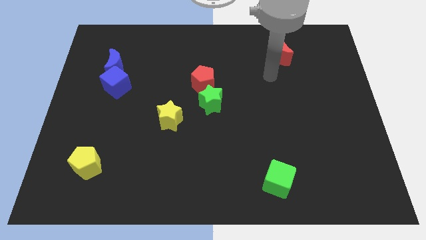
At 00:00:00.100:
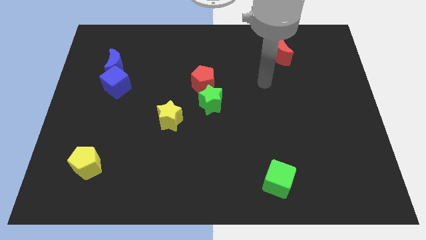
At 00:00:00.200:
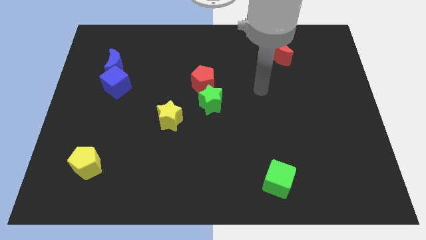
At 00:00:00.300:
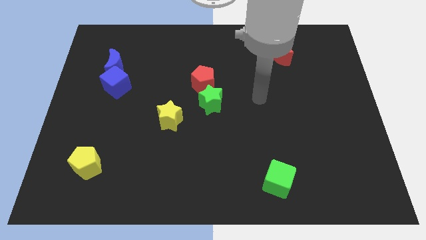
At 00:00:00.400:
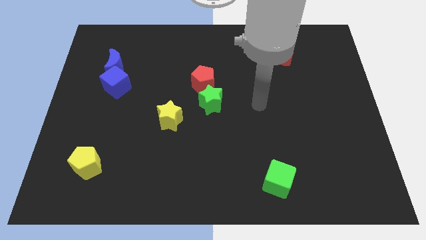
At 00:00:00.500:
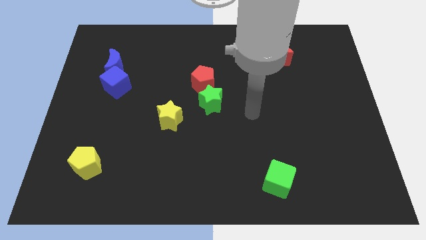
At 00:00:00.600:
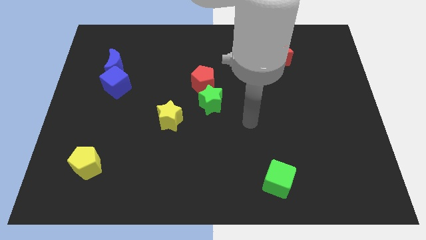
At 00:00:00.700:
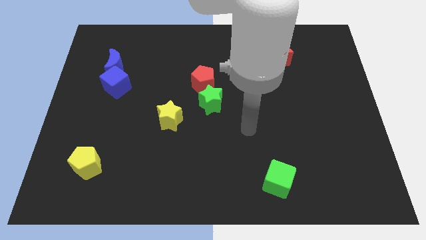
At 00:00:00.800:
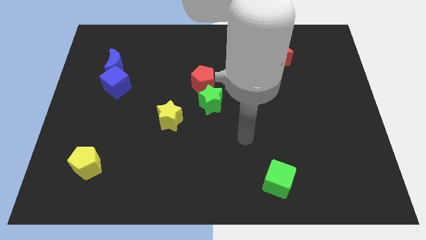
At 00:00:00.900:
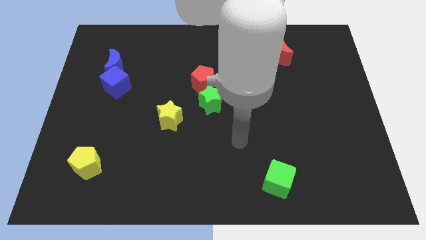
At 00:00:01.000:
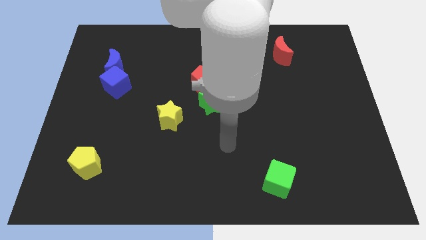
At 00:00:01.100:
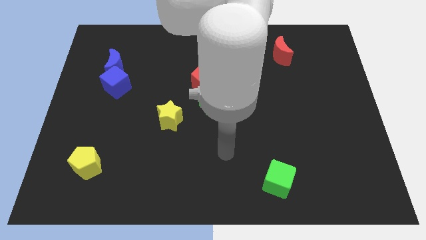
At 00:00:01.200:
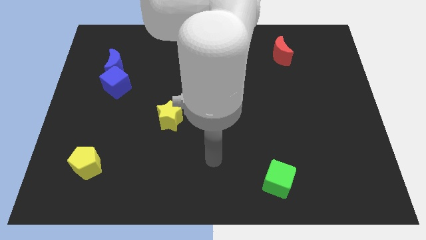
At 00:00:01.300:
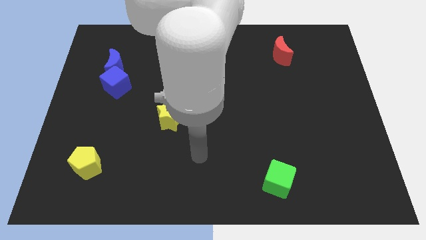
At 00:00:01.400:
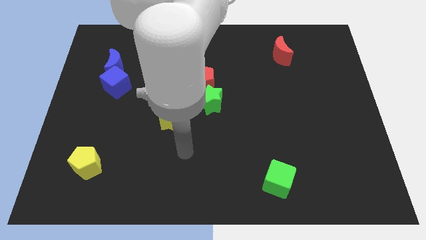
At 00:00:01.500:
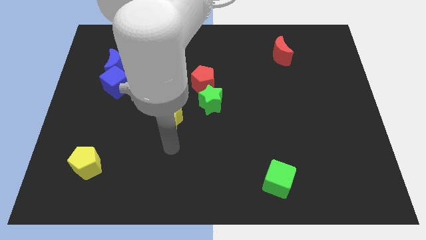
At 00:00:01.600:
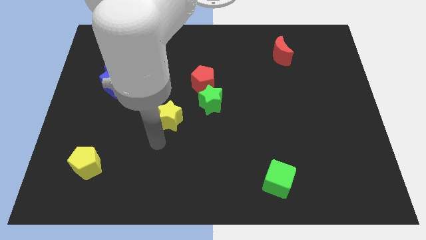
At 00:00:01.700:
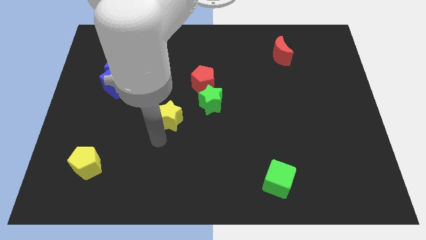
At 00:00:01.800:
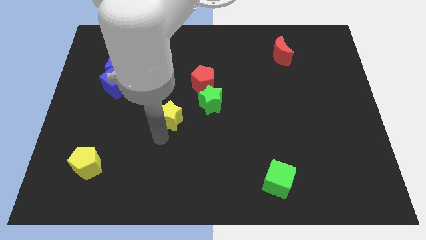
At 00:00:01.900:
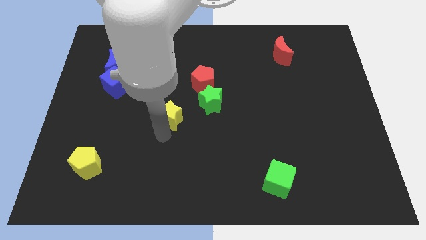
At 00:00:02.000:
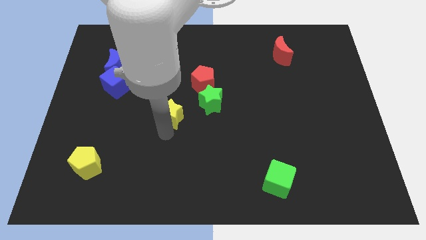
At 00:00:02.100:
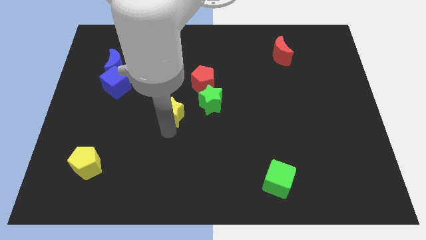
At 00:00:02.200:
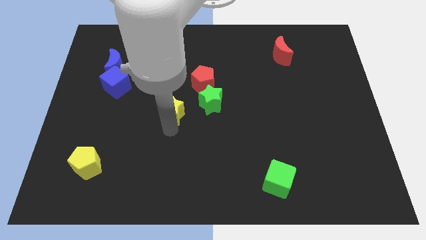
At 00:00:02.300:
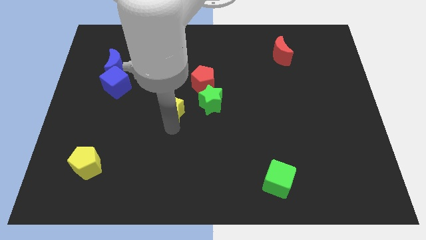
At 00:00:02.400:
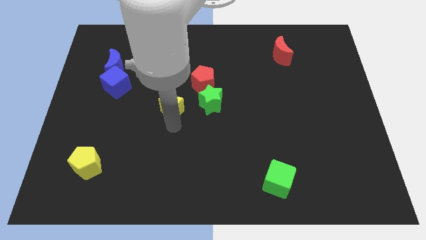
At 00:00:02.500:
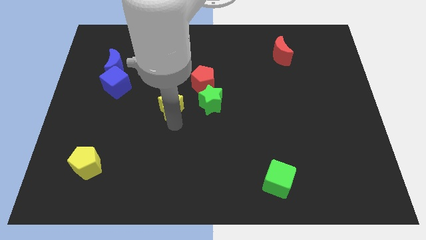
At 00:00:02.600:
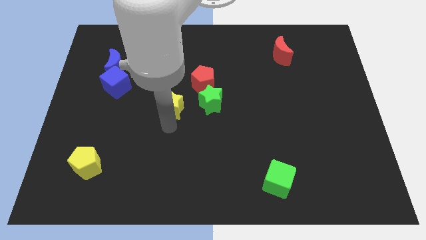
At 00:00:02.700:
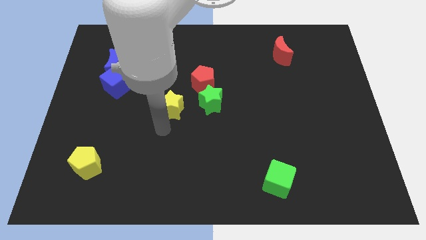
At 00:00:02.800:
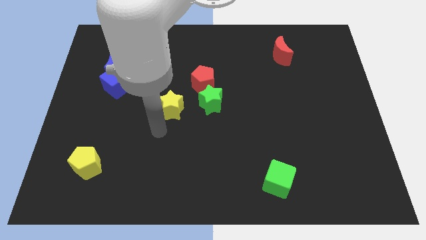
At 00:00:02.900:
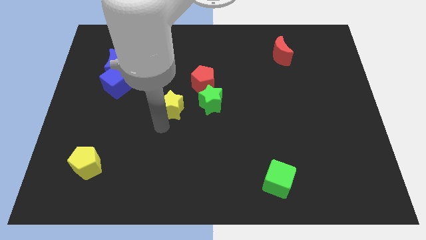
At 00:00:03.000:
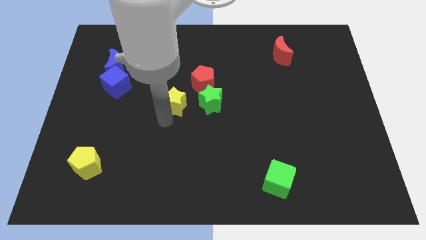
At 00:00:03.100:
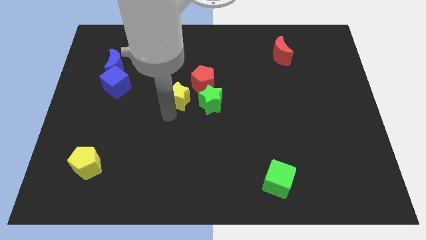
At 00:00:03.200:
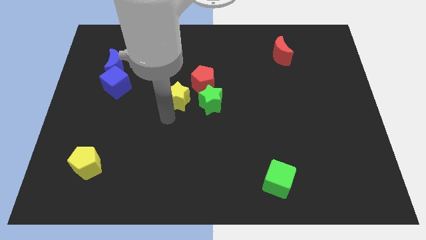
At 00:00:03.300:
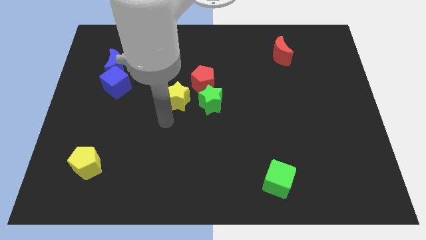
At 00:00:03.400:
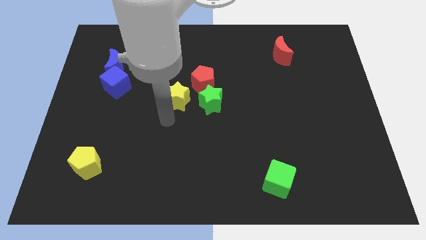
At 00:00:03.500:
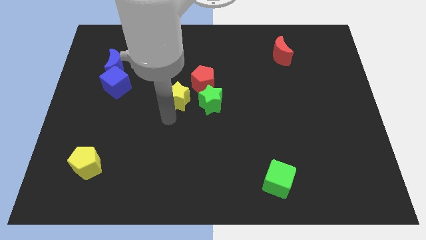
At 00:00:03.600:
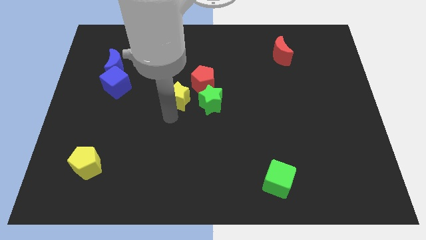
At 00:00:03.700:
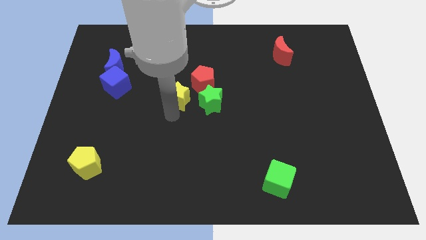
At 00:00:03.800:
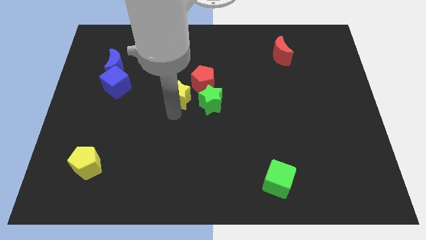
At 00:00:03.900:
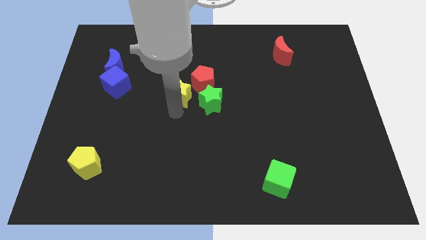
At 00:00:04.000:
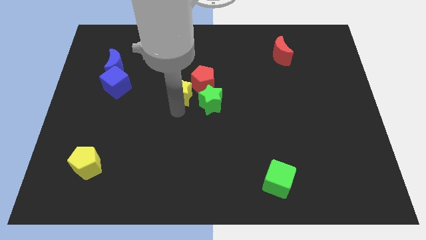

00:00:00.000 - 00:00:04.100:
slightly slide the yellow star upwards

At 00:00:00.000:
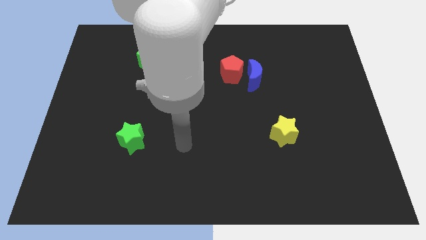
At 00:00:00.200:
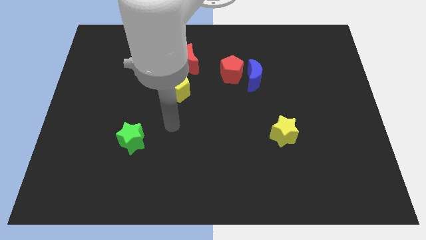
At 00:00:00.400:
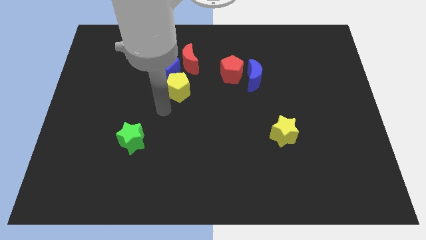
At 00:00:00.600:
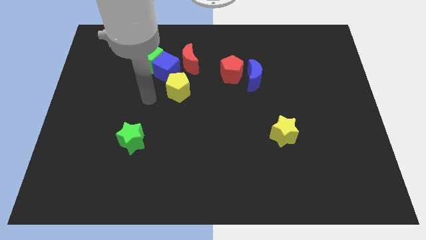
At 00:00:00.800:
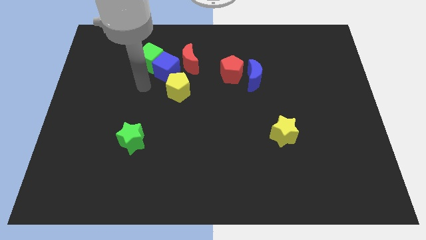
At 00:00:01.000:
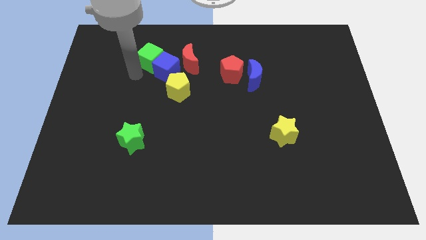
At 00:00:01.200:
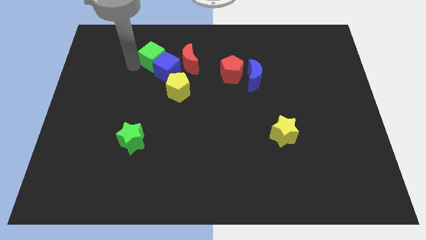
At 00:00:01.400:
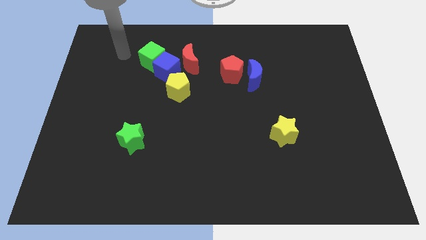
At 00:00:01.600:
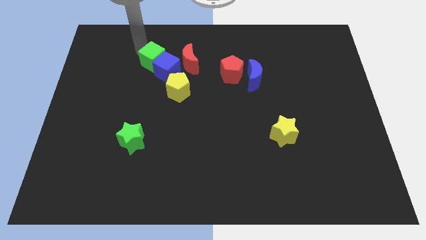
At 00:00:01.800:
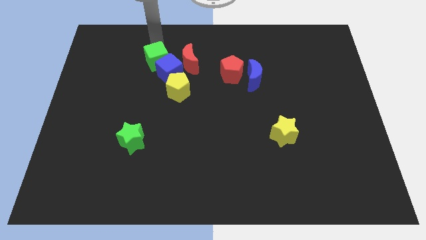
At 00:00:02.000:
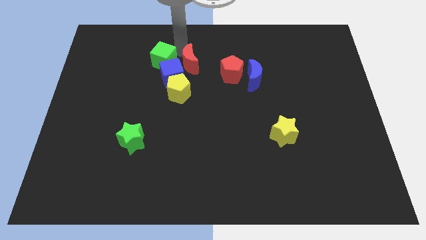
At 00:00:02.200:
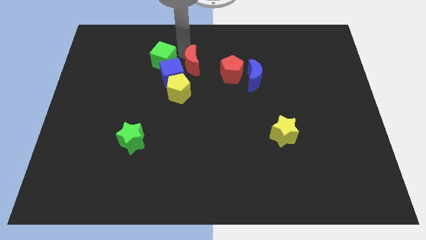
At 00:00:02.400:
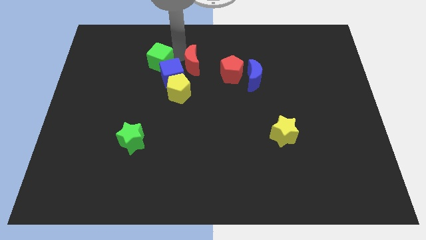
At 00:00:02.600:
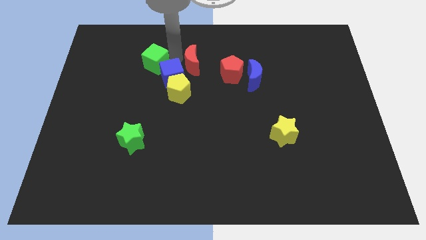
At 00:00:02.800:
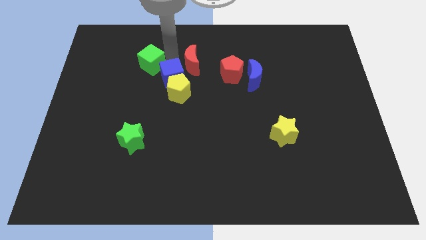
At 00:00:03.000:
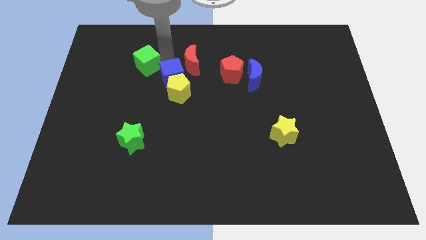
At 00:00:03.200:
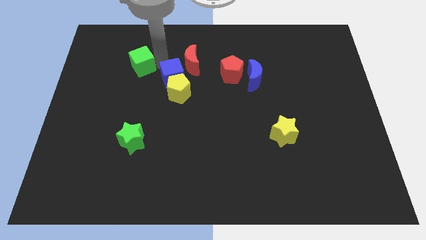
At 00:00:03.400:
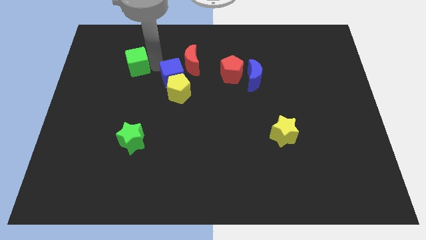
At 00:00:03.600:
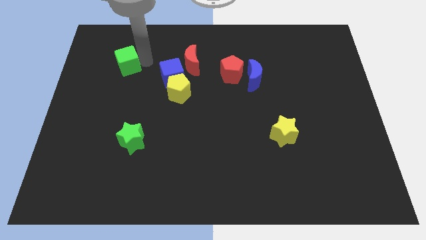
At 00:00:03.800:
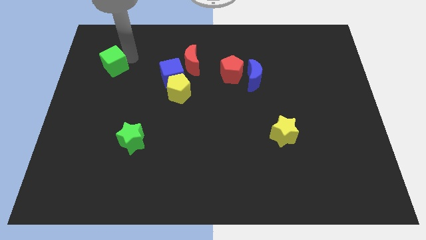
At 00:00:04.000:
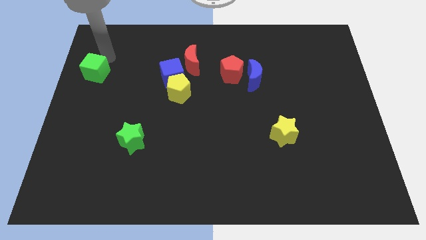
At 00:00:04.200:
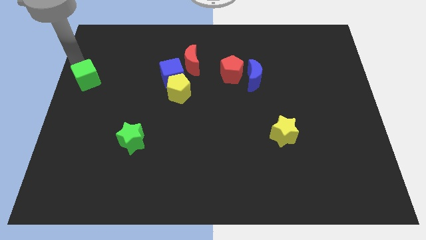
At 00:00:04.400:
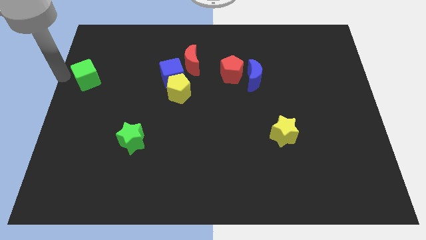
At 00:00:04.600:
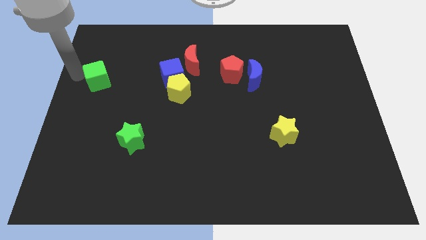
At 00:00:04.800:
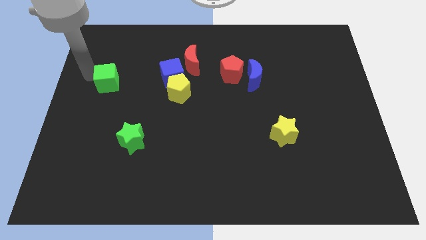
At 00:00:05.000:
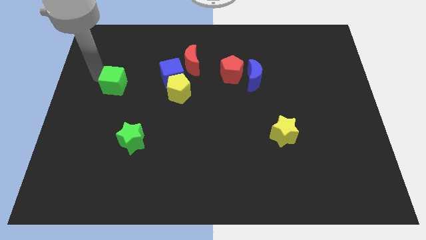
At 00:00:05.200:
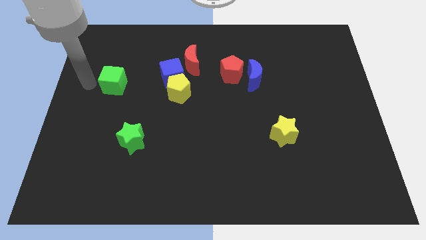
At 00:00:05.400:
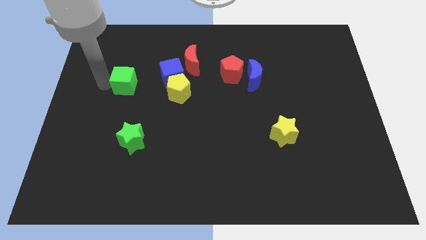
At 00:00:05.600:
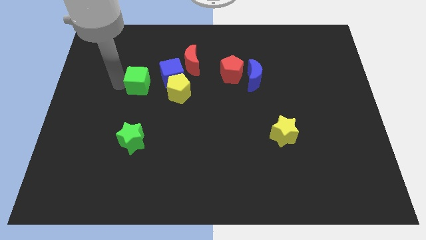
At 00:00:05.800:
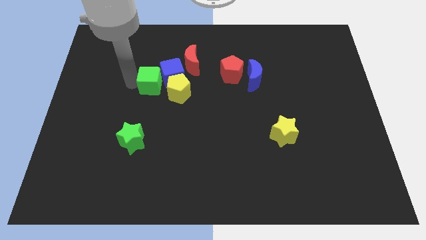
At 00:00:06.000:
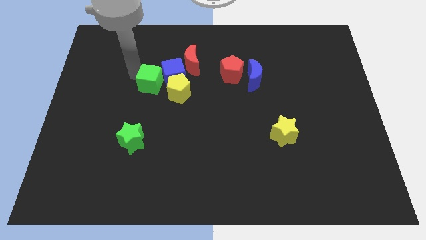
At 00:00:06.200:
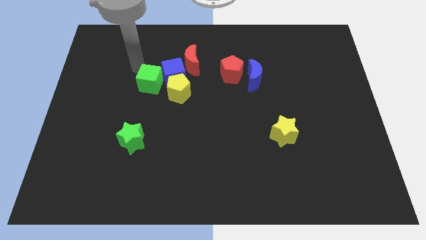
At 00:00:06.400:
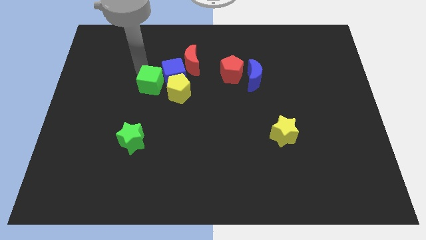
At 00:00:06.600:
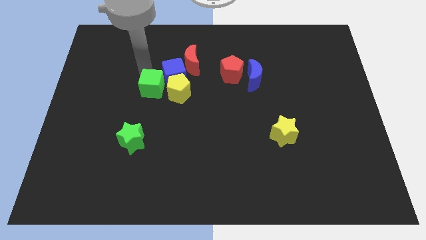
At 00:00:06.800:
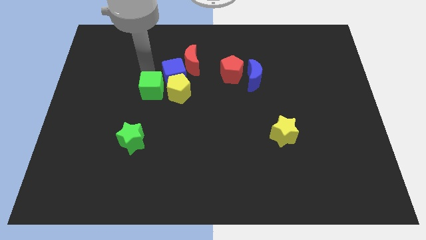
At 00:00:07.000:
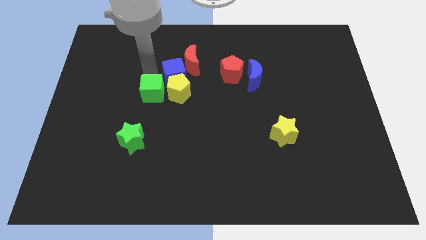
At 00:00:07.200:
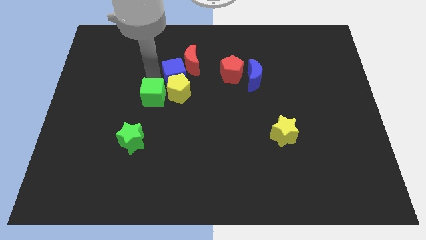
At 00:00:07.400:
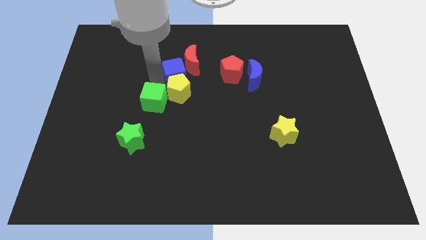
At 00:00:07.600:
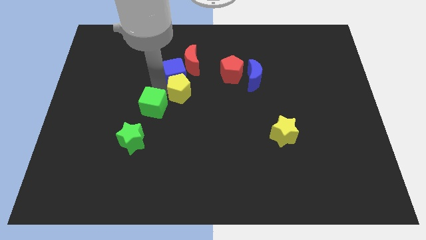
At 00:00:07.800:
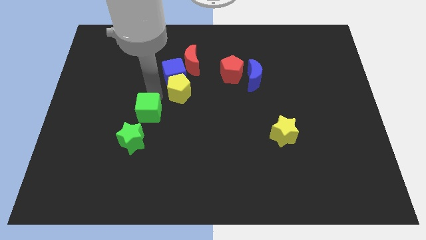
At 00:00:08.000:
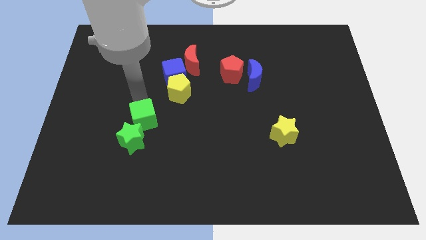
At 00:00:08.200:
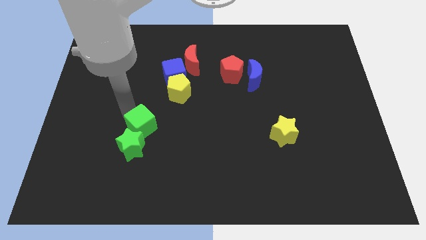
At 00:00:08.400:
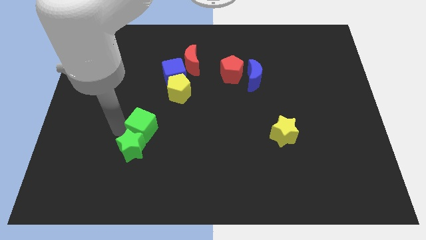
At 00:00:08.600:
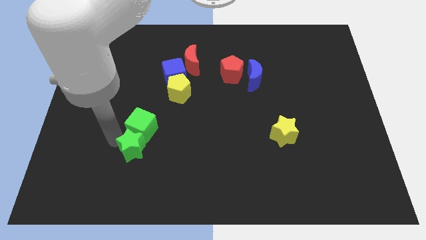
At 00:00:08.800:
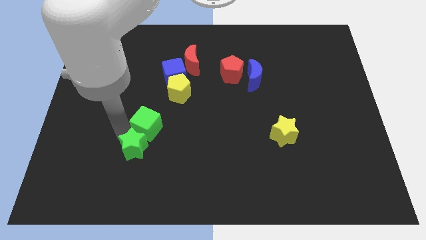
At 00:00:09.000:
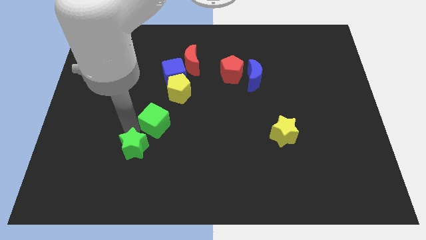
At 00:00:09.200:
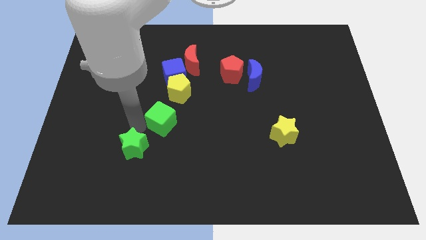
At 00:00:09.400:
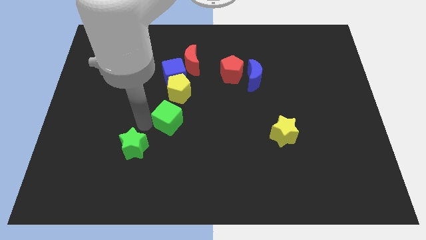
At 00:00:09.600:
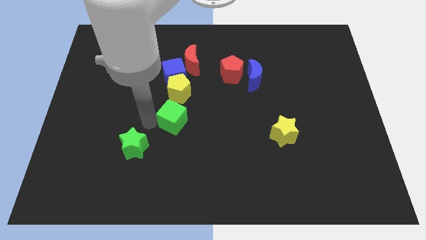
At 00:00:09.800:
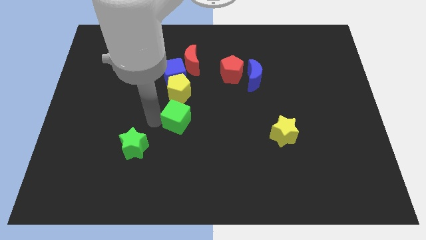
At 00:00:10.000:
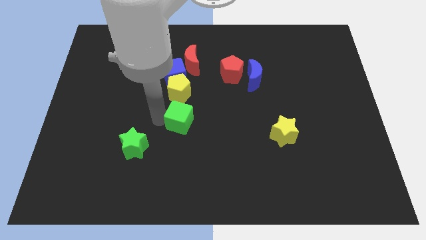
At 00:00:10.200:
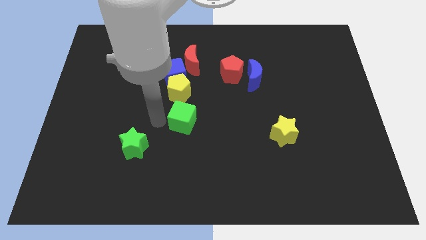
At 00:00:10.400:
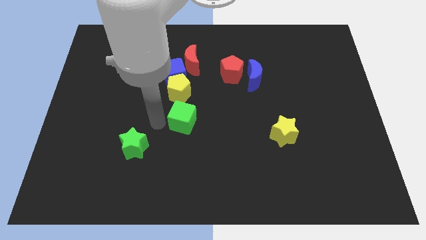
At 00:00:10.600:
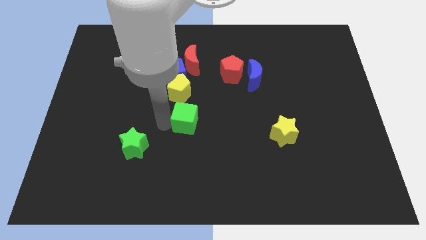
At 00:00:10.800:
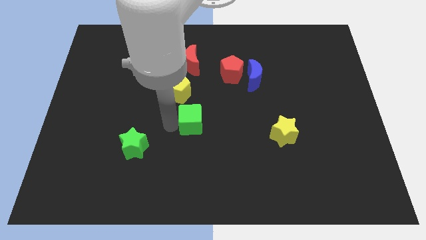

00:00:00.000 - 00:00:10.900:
move the green cube diagonally down and right
